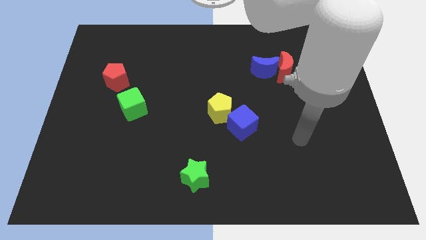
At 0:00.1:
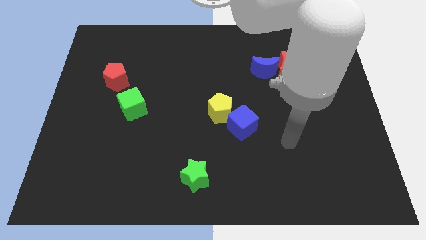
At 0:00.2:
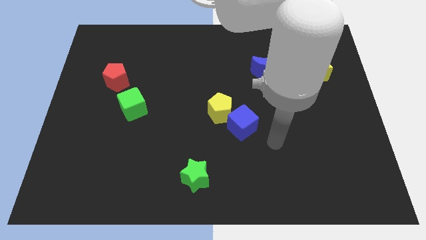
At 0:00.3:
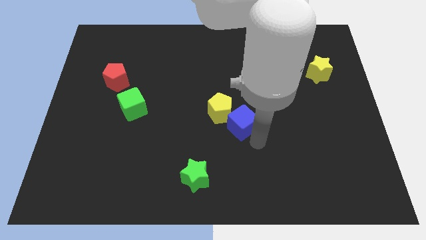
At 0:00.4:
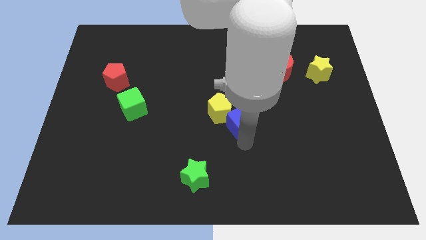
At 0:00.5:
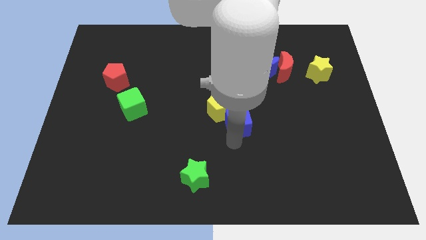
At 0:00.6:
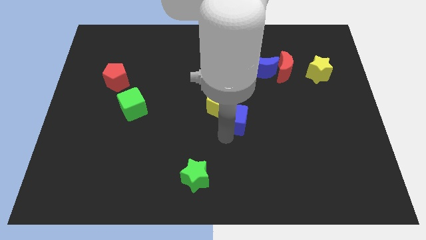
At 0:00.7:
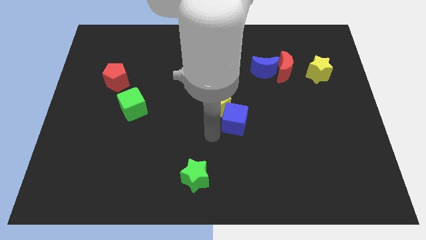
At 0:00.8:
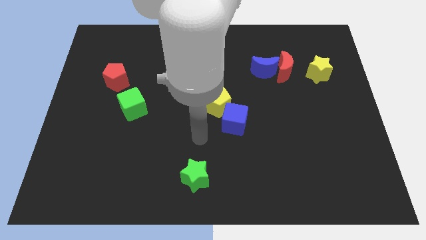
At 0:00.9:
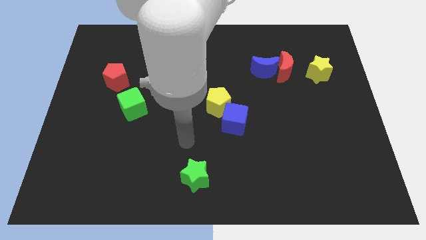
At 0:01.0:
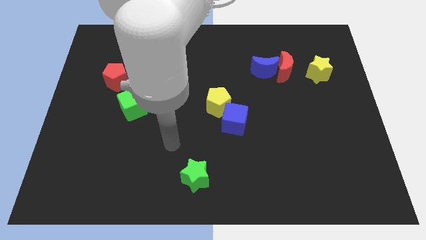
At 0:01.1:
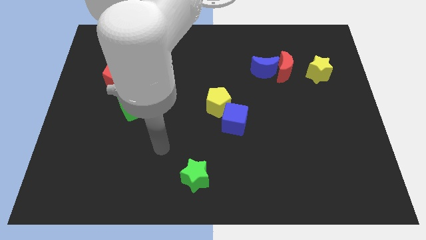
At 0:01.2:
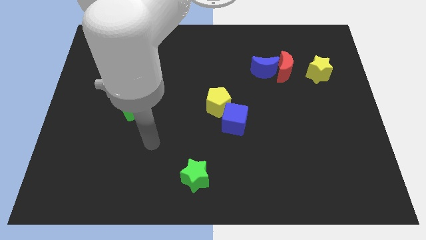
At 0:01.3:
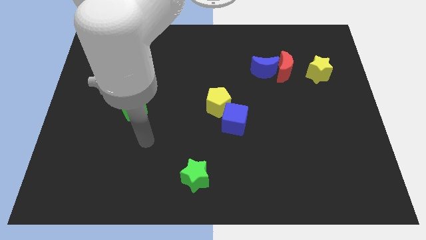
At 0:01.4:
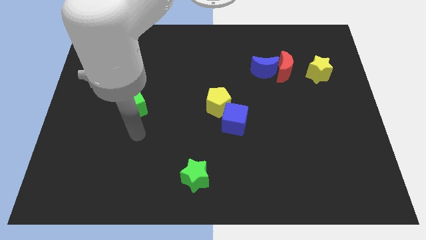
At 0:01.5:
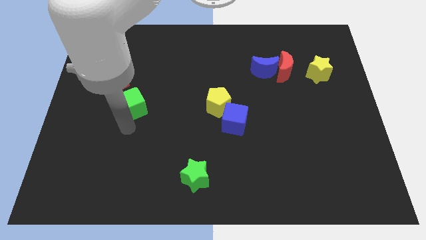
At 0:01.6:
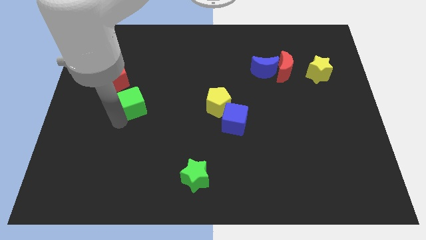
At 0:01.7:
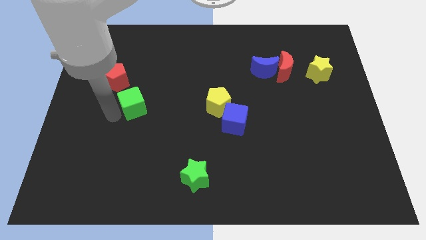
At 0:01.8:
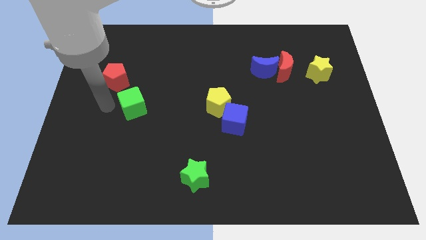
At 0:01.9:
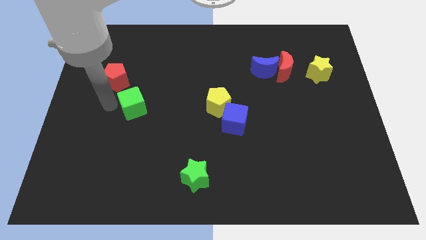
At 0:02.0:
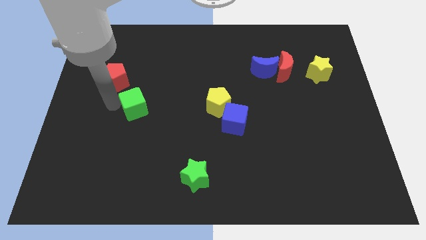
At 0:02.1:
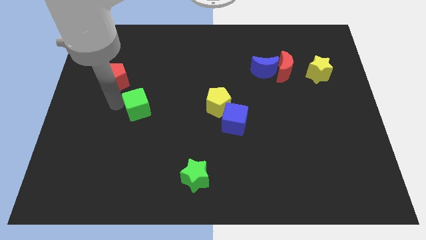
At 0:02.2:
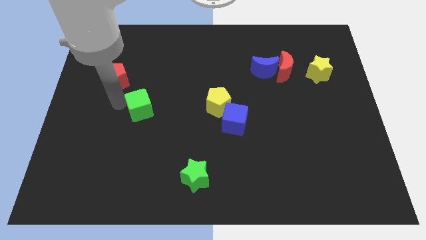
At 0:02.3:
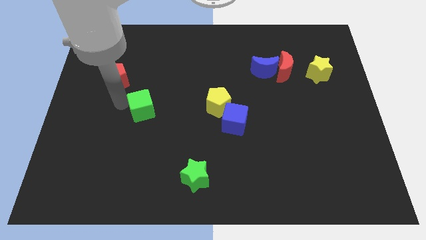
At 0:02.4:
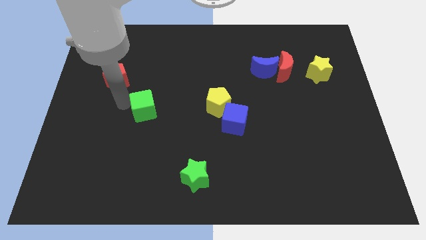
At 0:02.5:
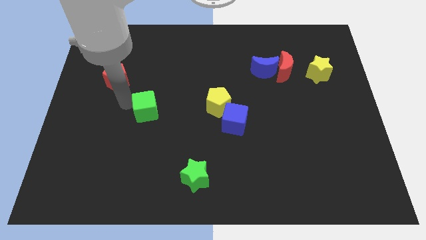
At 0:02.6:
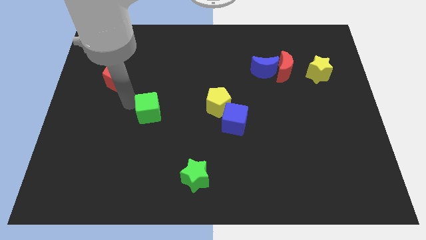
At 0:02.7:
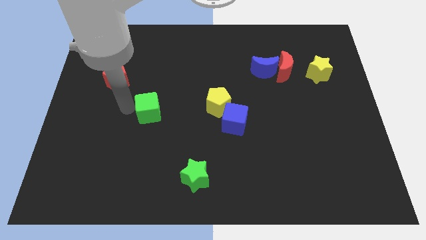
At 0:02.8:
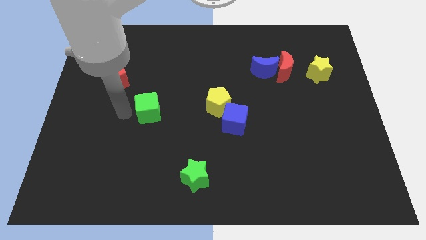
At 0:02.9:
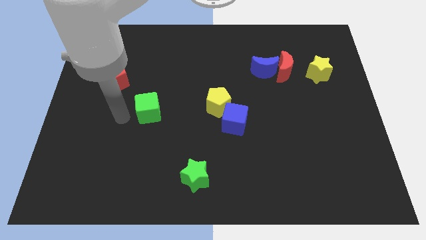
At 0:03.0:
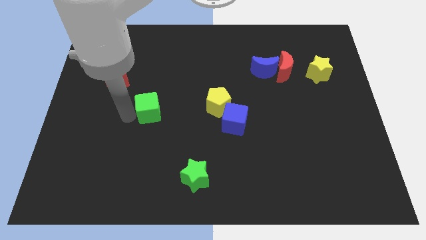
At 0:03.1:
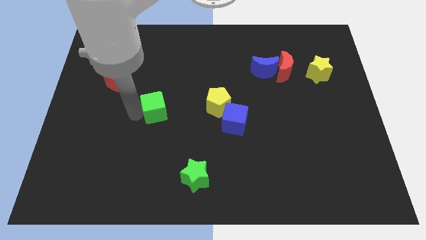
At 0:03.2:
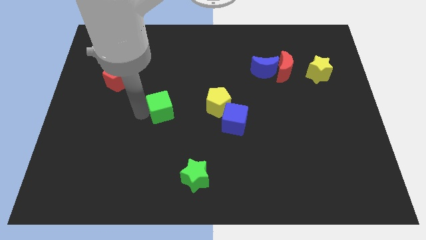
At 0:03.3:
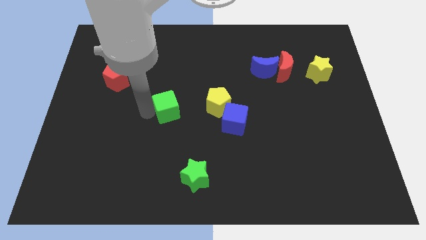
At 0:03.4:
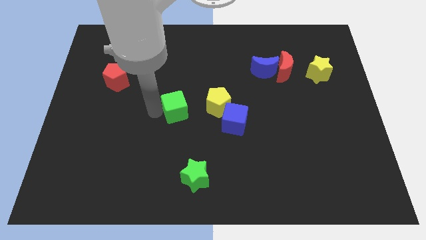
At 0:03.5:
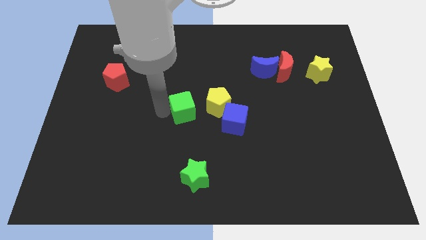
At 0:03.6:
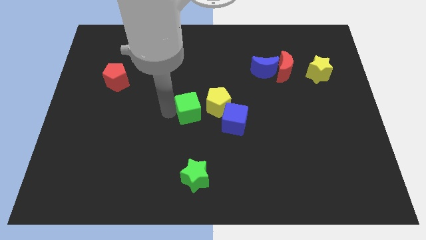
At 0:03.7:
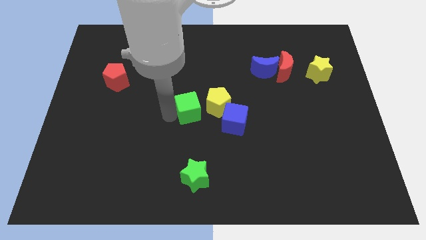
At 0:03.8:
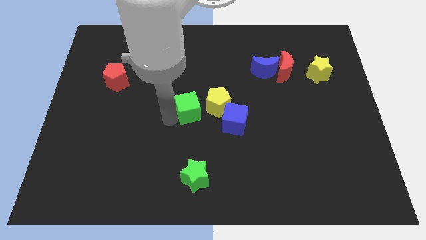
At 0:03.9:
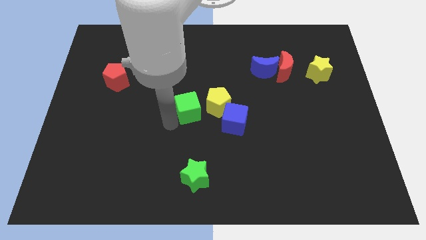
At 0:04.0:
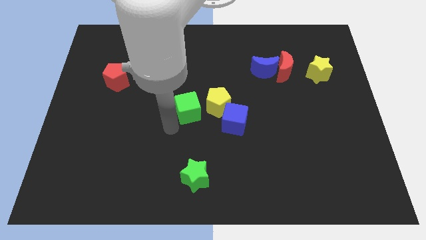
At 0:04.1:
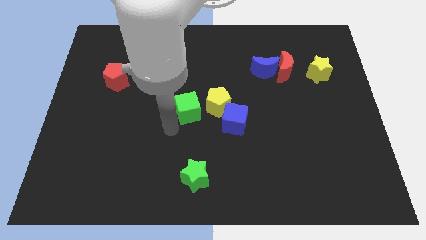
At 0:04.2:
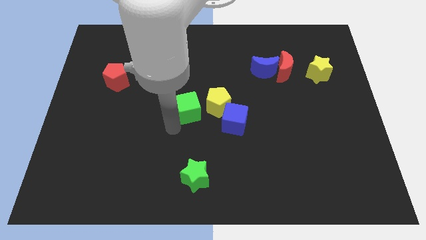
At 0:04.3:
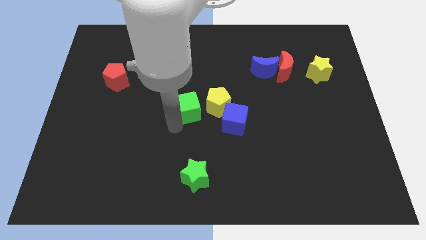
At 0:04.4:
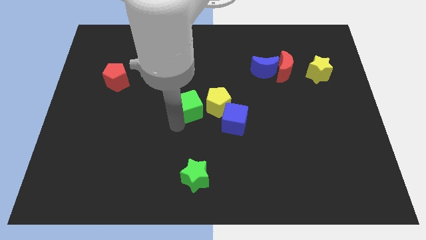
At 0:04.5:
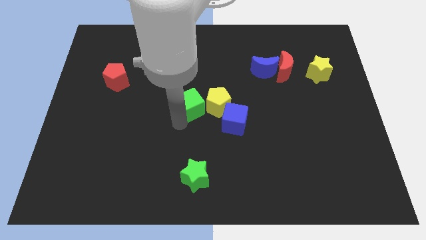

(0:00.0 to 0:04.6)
push the green cube next to the yellow pentagon

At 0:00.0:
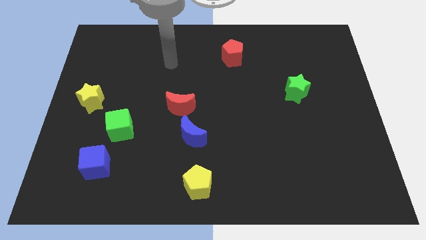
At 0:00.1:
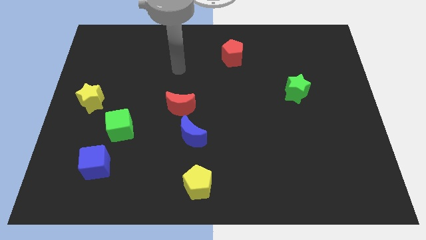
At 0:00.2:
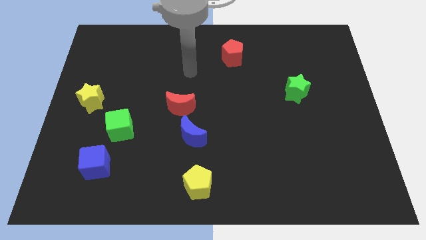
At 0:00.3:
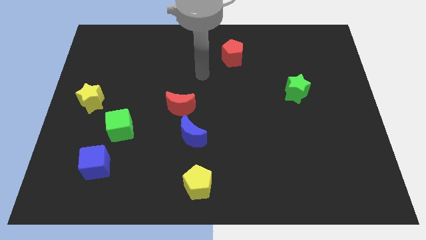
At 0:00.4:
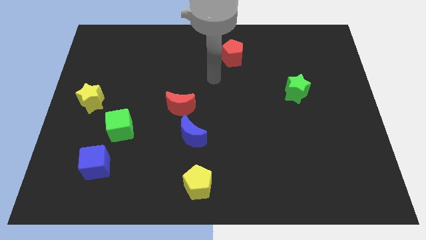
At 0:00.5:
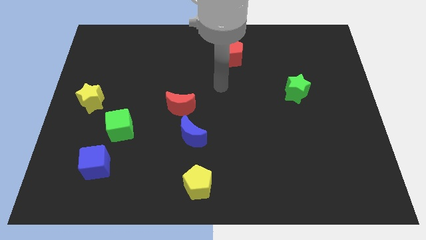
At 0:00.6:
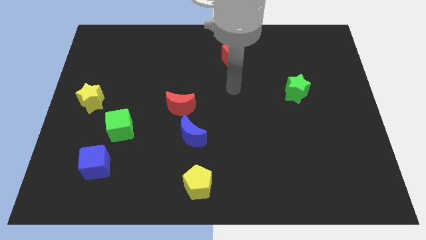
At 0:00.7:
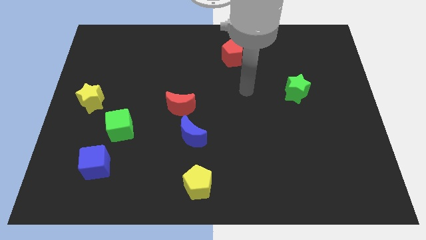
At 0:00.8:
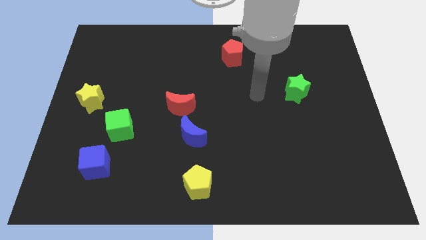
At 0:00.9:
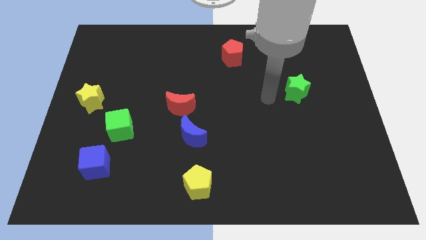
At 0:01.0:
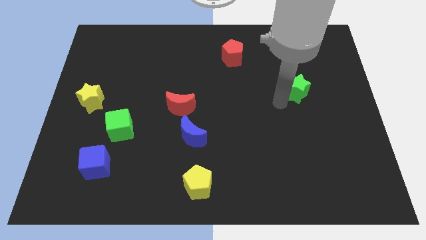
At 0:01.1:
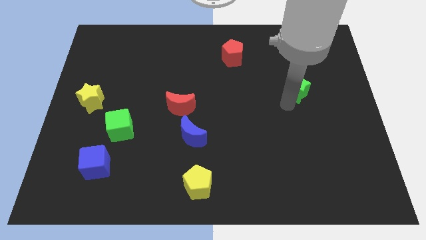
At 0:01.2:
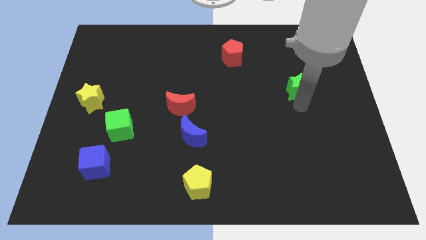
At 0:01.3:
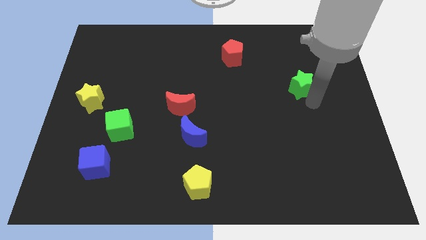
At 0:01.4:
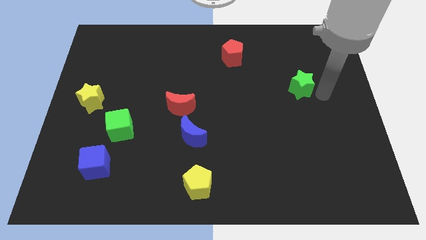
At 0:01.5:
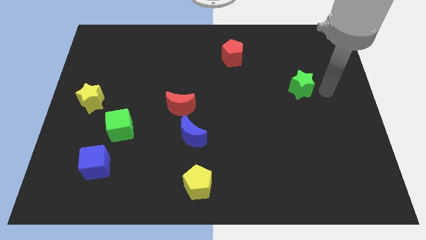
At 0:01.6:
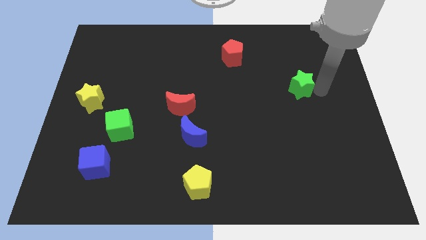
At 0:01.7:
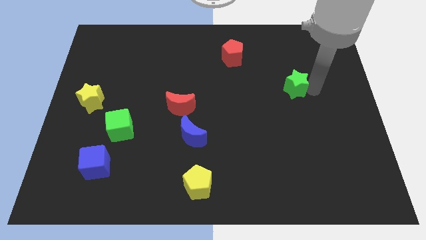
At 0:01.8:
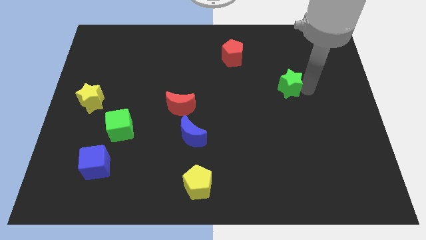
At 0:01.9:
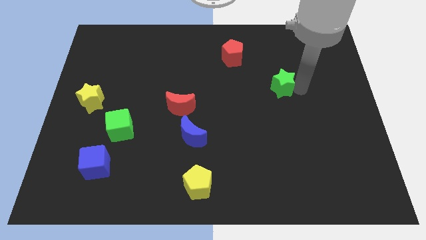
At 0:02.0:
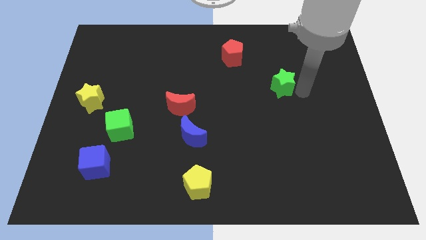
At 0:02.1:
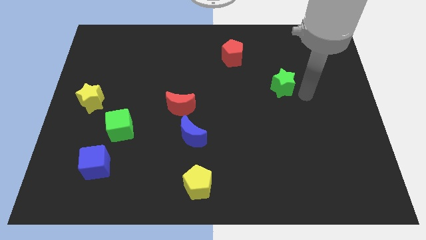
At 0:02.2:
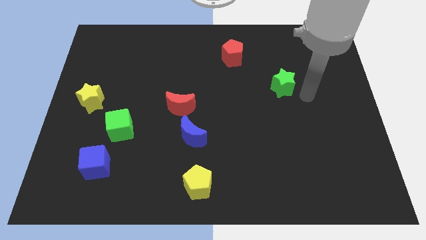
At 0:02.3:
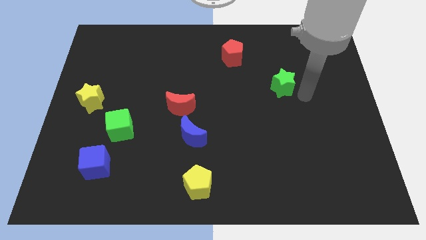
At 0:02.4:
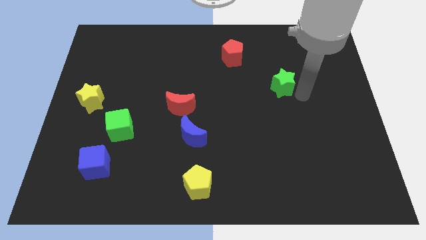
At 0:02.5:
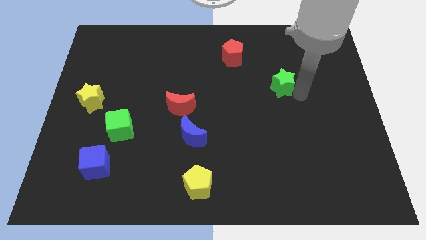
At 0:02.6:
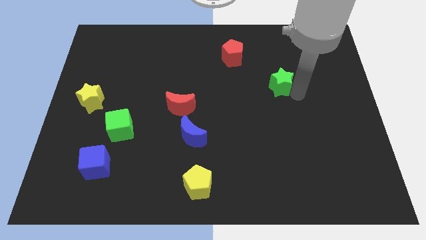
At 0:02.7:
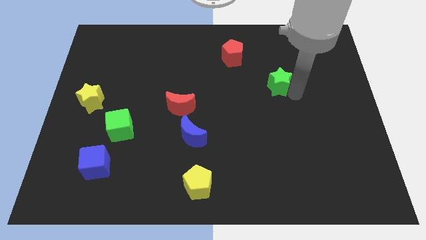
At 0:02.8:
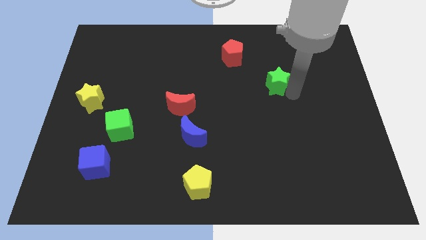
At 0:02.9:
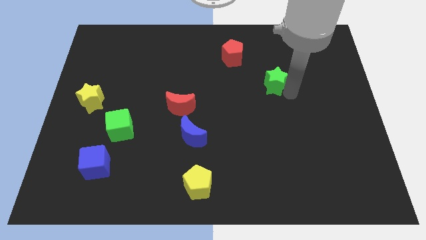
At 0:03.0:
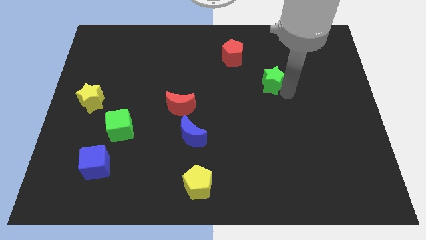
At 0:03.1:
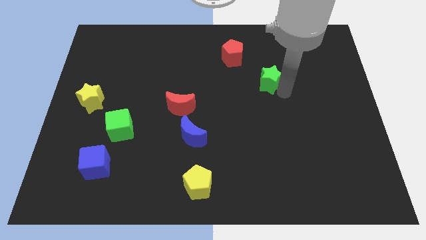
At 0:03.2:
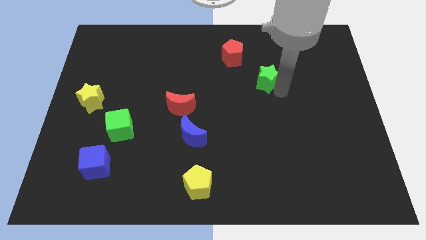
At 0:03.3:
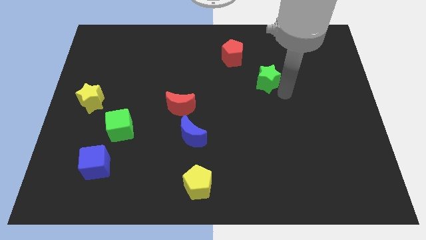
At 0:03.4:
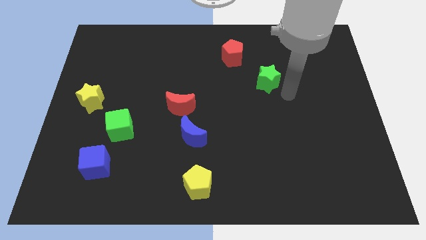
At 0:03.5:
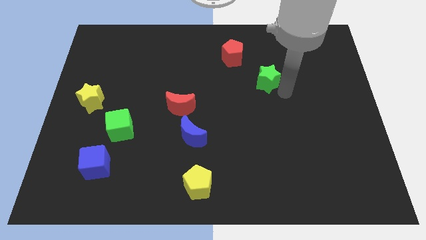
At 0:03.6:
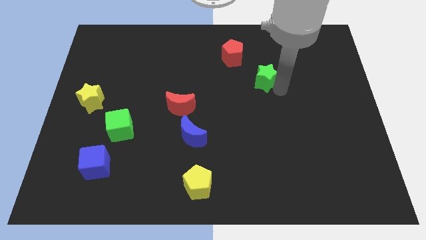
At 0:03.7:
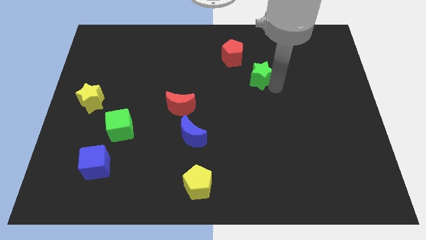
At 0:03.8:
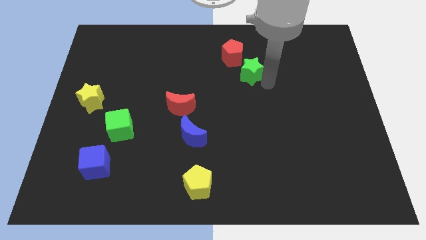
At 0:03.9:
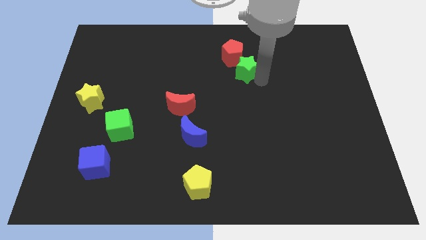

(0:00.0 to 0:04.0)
put the green star to the red pentagon
